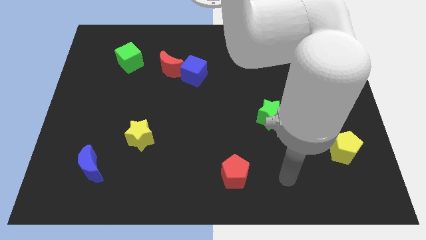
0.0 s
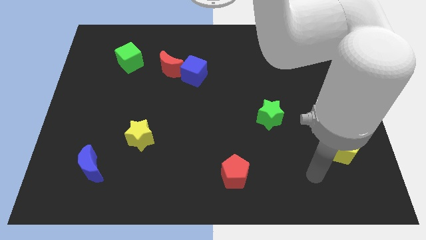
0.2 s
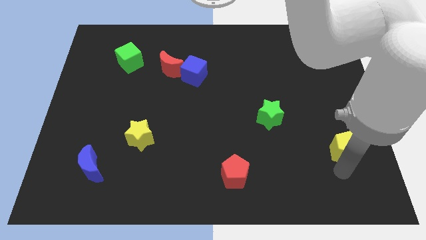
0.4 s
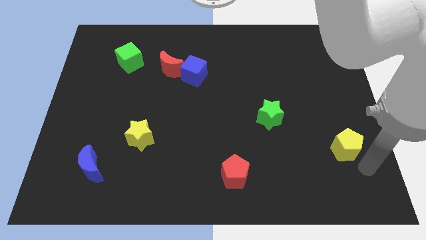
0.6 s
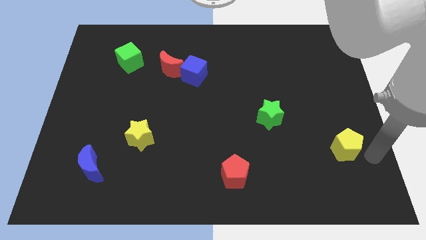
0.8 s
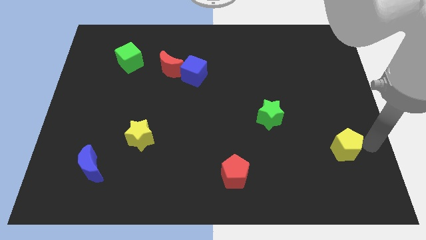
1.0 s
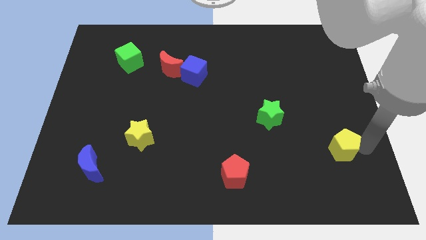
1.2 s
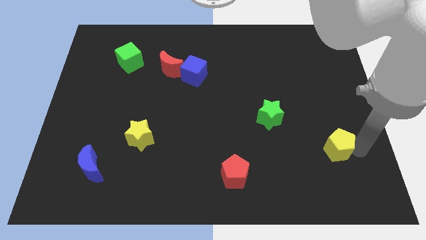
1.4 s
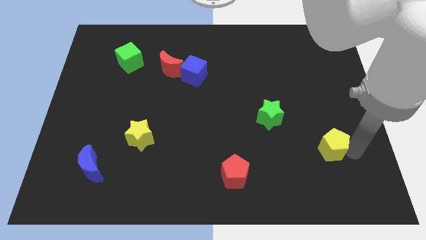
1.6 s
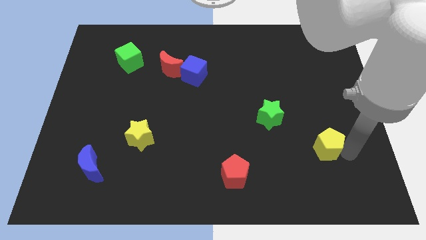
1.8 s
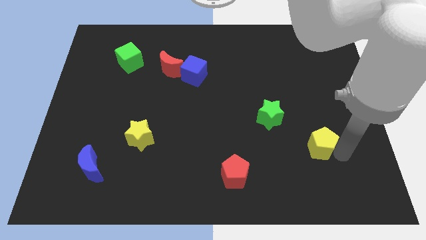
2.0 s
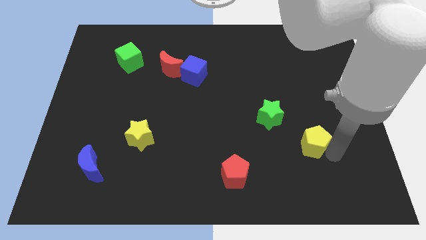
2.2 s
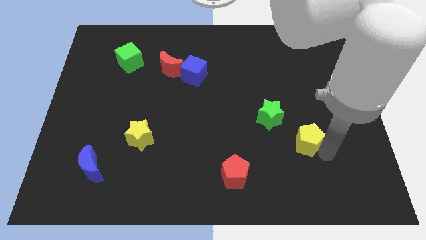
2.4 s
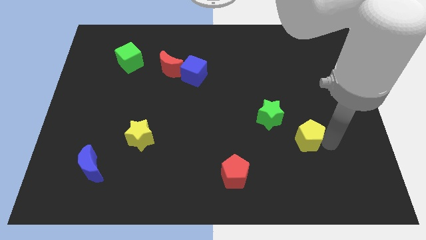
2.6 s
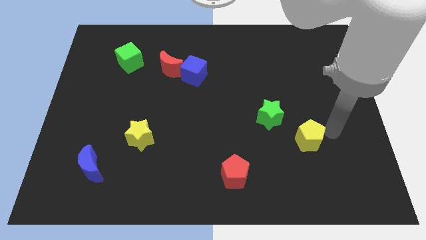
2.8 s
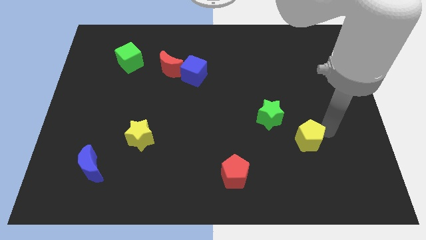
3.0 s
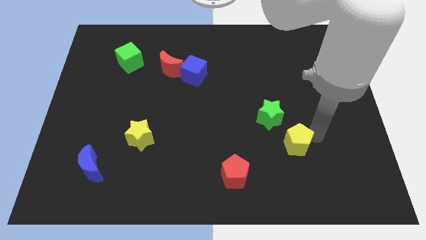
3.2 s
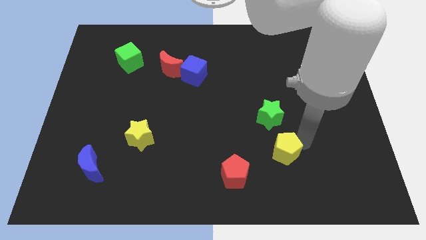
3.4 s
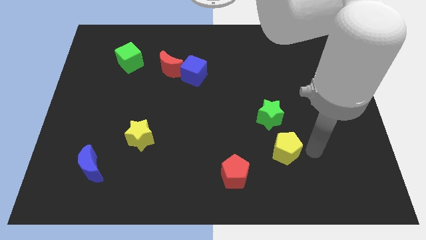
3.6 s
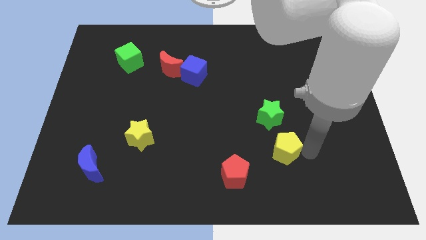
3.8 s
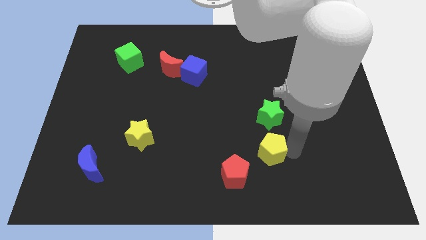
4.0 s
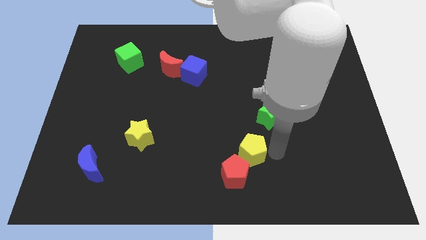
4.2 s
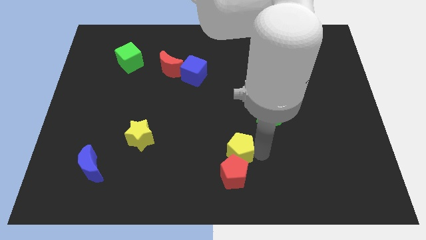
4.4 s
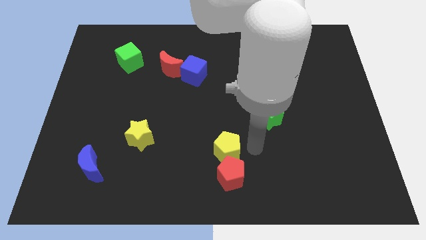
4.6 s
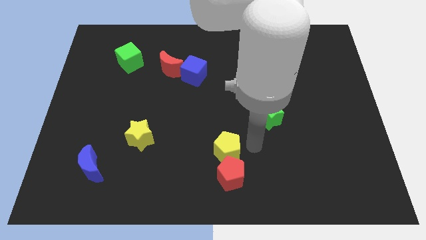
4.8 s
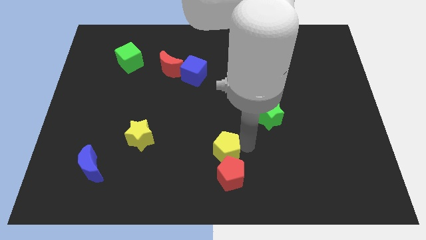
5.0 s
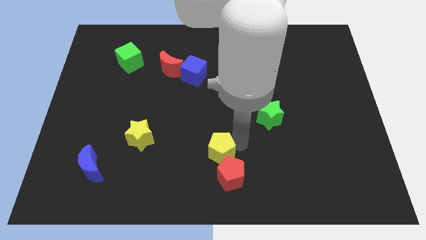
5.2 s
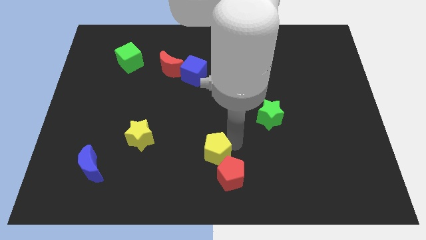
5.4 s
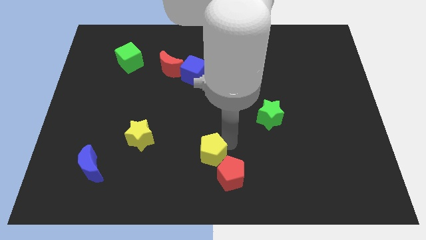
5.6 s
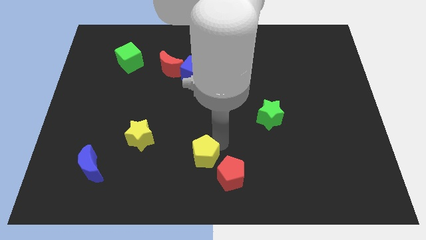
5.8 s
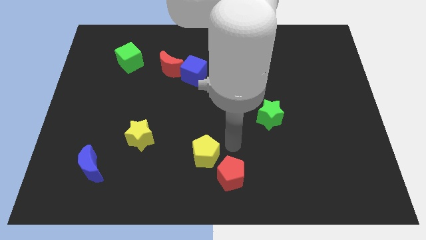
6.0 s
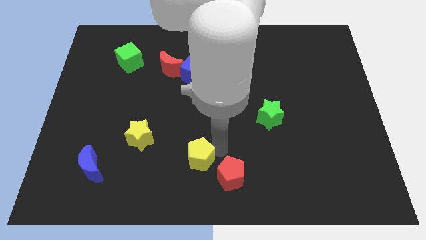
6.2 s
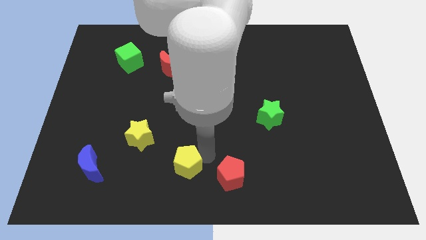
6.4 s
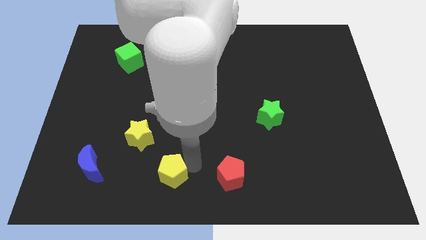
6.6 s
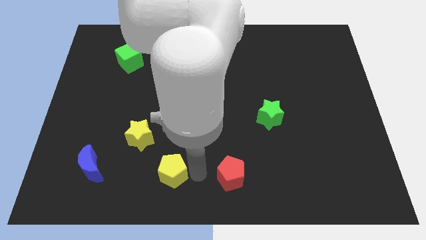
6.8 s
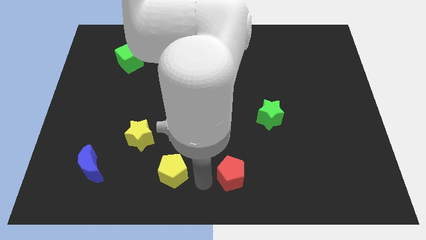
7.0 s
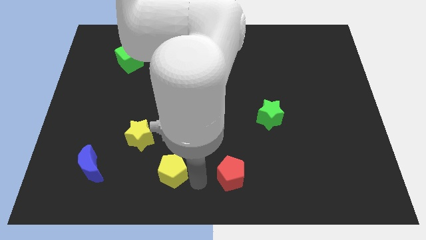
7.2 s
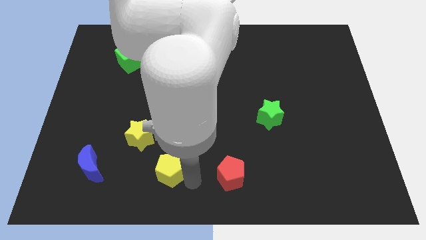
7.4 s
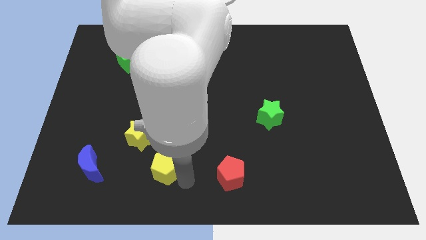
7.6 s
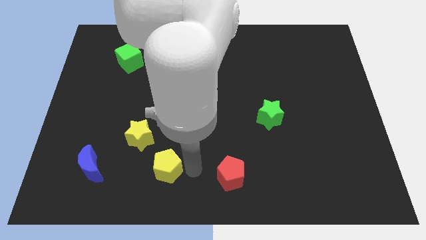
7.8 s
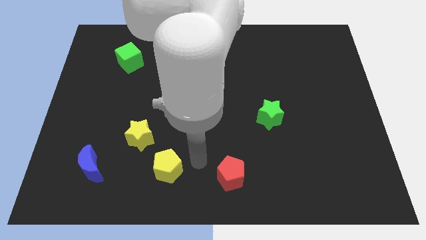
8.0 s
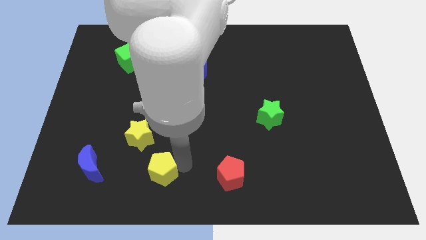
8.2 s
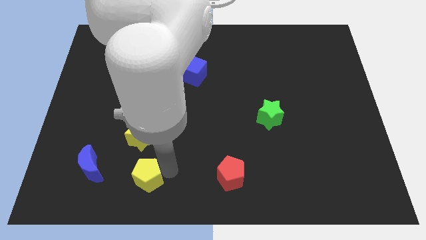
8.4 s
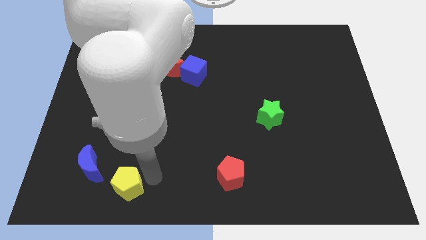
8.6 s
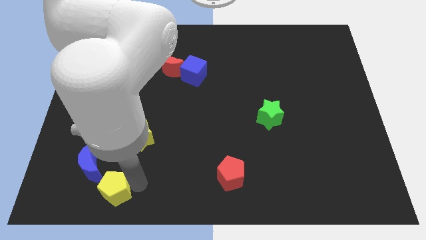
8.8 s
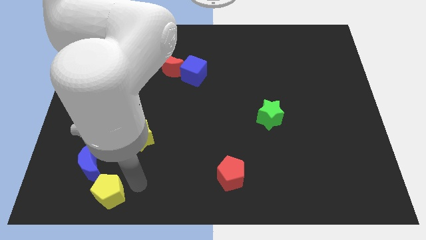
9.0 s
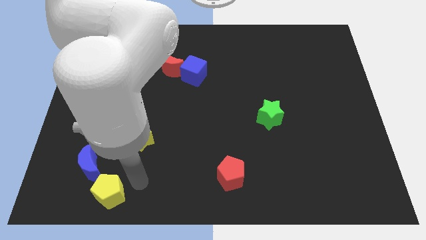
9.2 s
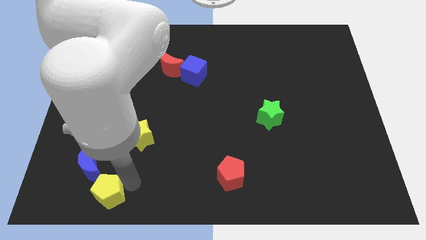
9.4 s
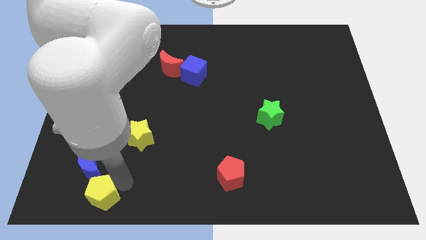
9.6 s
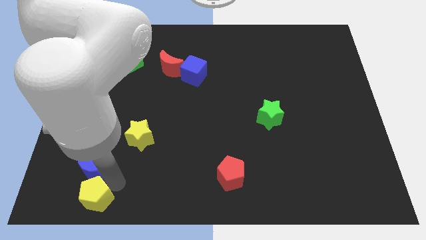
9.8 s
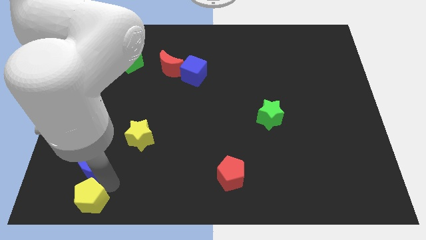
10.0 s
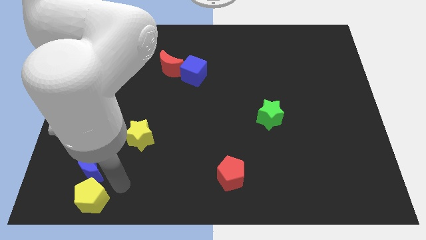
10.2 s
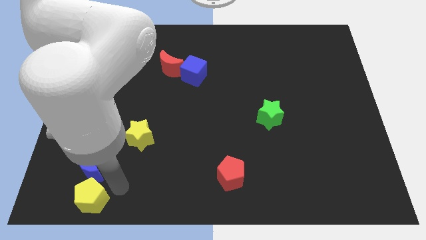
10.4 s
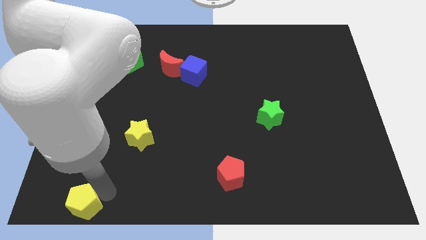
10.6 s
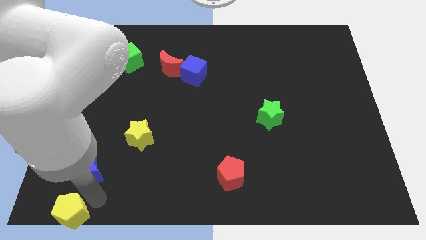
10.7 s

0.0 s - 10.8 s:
put the yellow pentagon to the bottom left

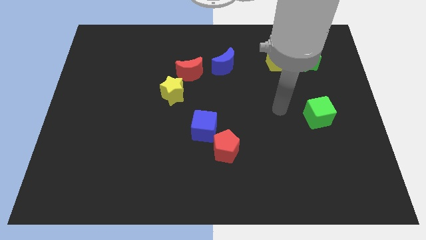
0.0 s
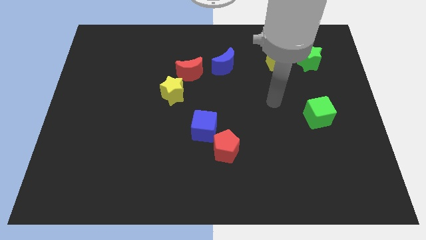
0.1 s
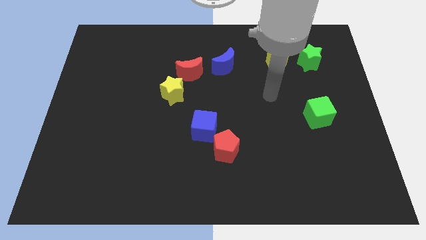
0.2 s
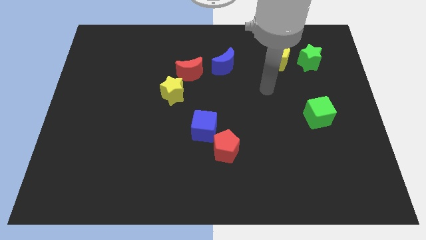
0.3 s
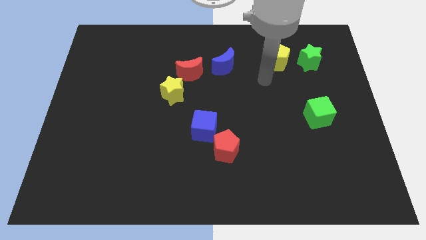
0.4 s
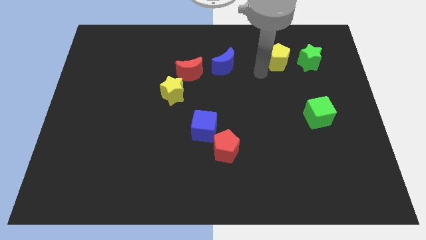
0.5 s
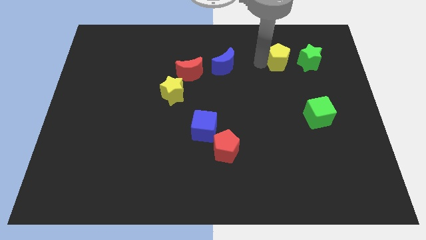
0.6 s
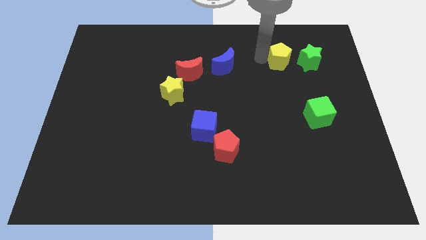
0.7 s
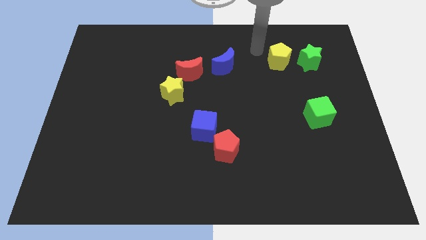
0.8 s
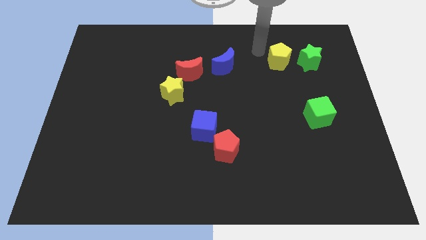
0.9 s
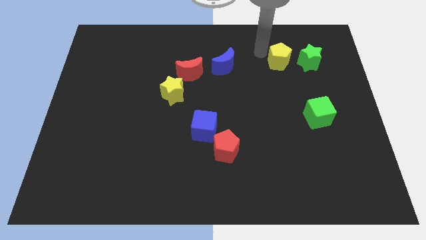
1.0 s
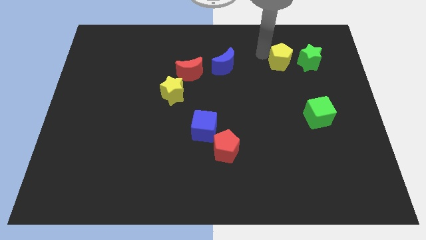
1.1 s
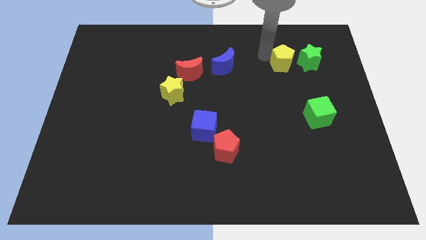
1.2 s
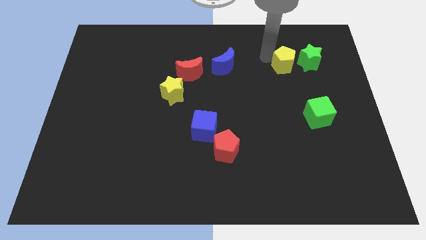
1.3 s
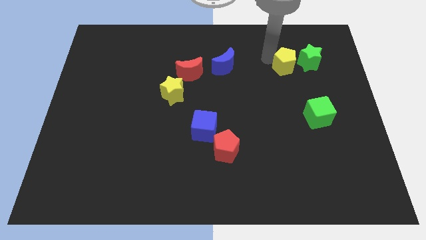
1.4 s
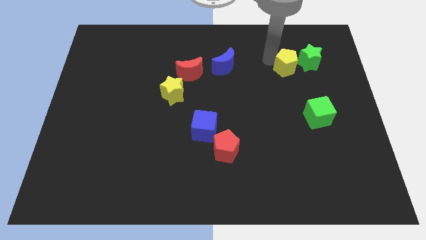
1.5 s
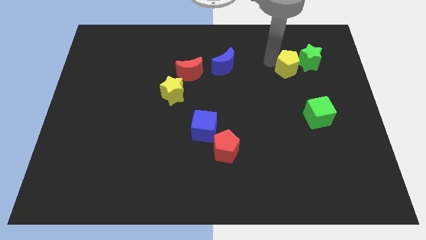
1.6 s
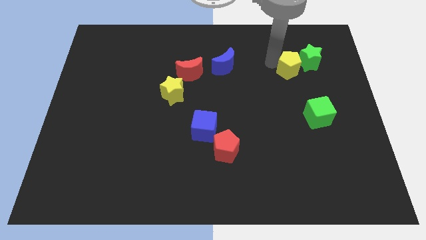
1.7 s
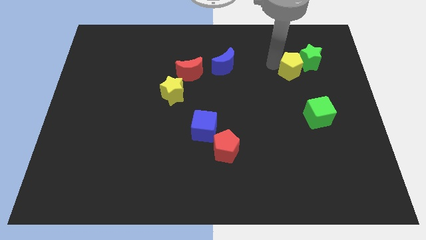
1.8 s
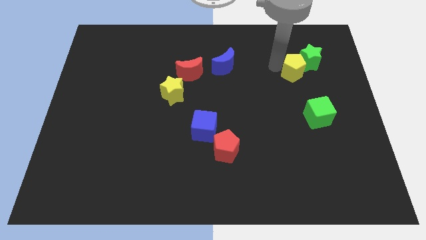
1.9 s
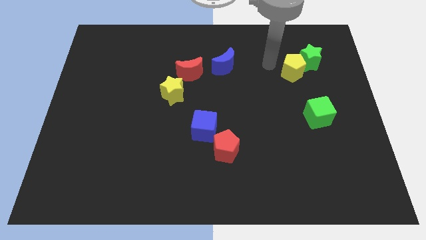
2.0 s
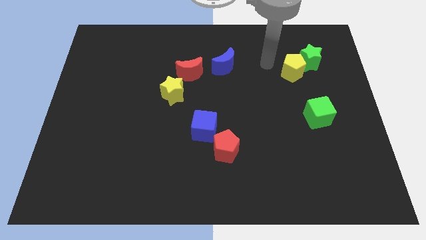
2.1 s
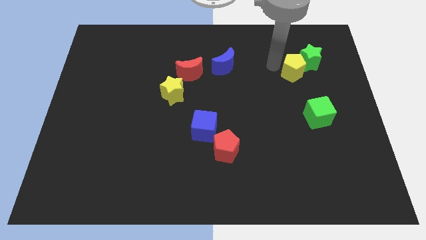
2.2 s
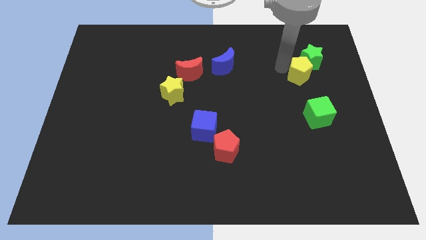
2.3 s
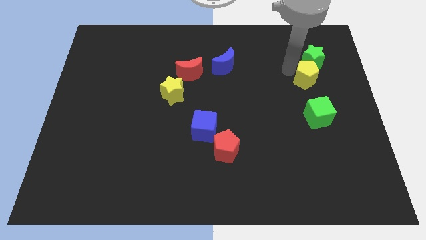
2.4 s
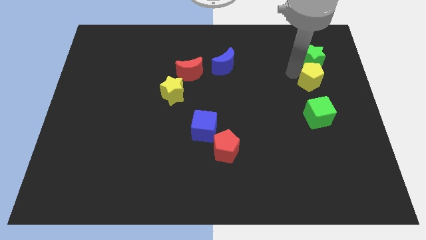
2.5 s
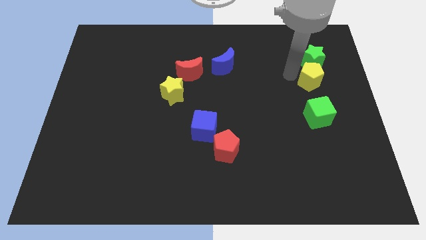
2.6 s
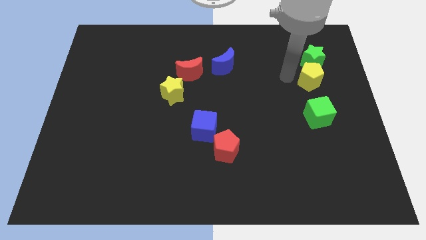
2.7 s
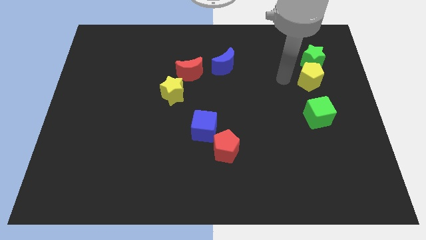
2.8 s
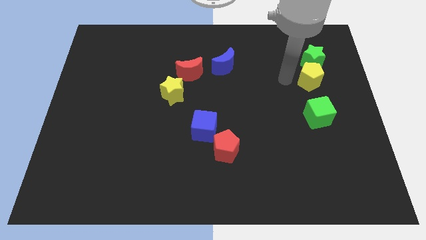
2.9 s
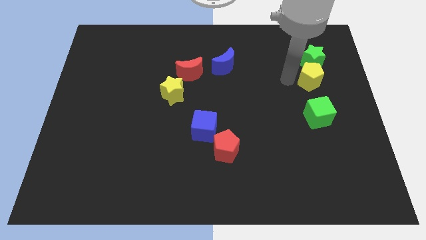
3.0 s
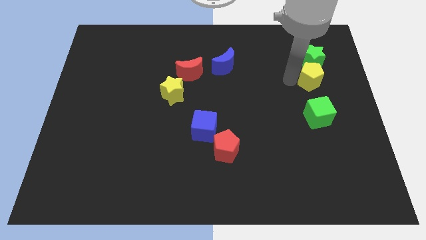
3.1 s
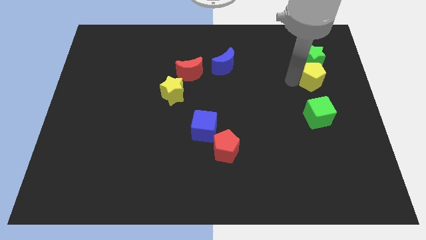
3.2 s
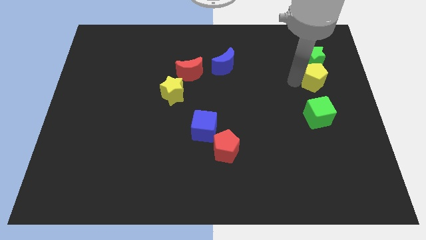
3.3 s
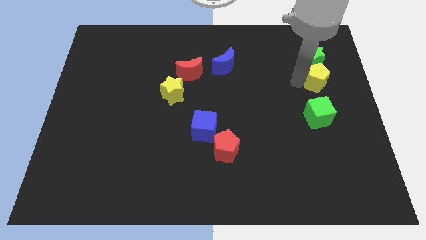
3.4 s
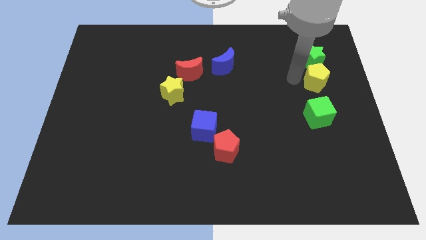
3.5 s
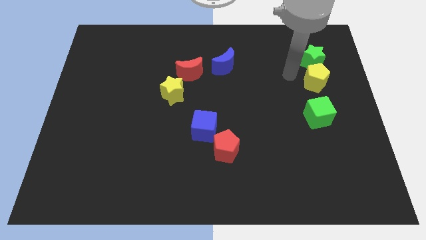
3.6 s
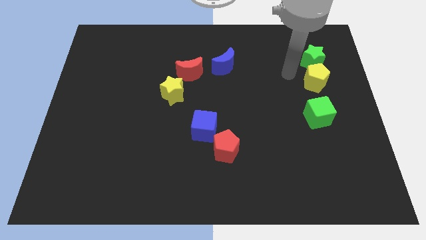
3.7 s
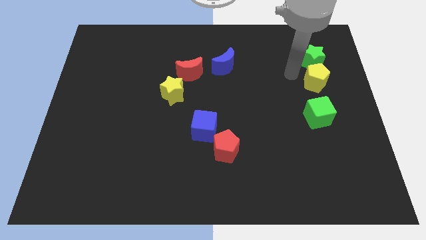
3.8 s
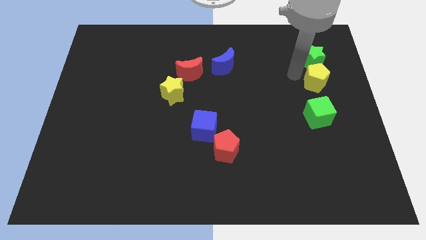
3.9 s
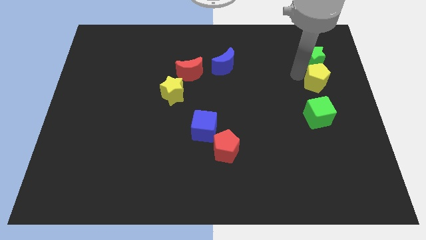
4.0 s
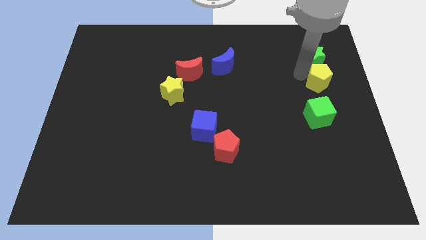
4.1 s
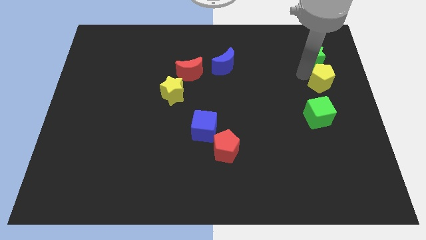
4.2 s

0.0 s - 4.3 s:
put the yellow pentagon to the right side
